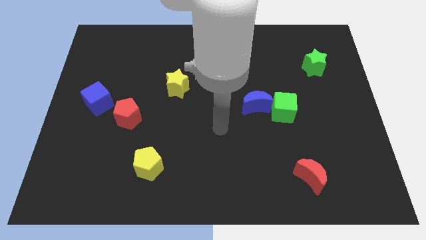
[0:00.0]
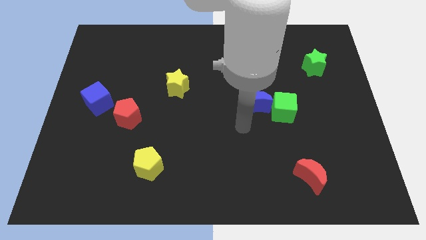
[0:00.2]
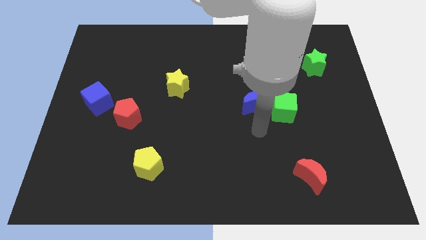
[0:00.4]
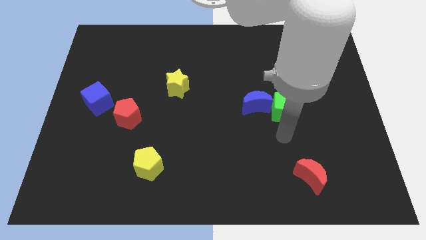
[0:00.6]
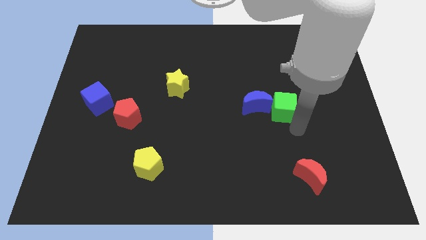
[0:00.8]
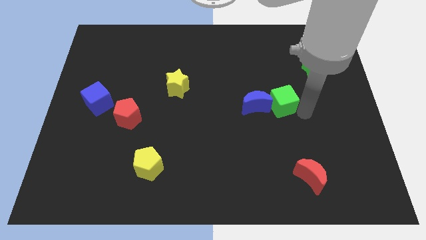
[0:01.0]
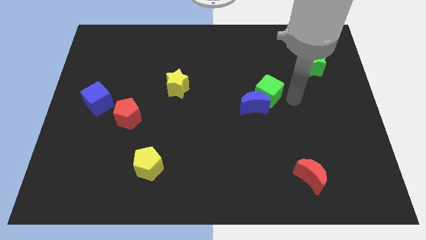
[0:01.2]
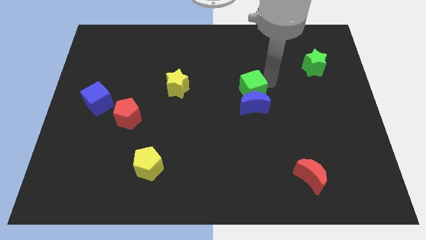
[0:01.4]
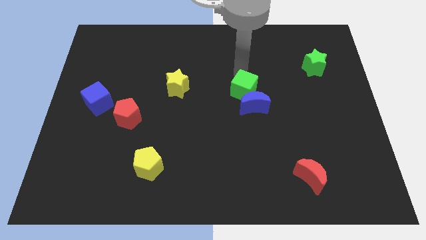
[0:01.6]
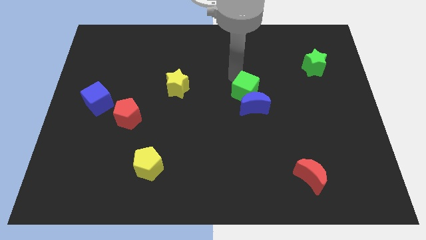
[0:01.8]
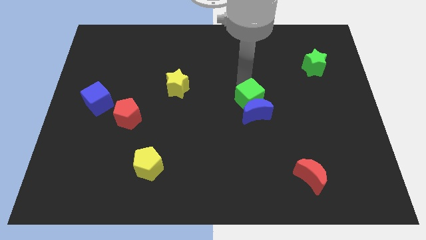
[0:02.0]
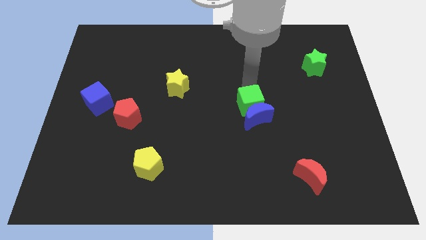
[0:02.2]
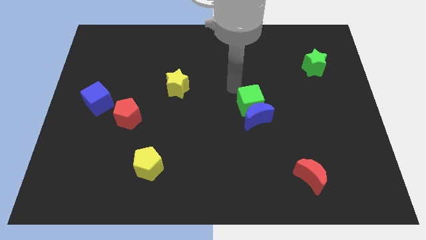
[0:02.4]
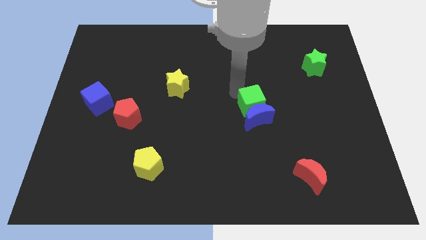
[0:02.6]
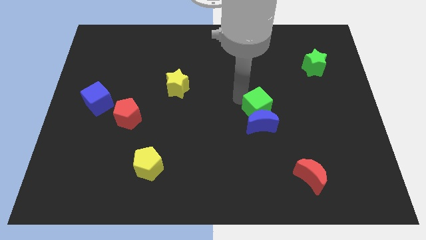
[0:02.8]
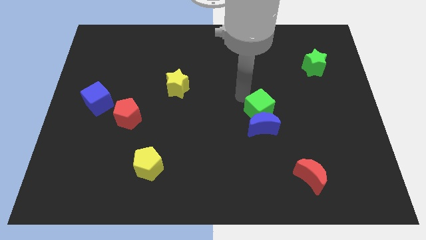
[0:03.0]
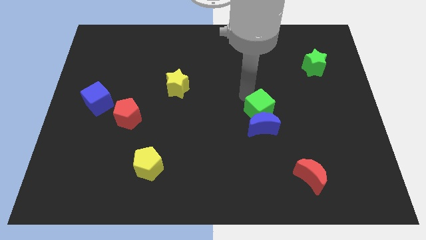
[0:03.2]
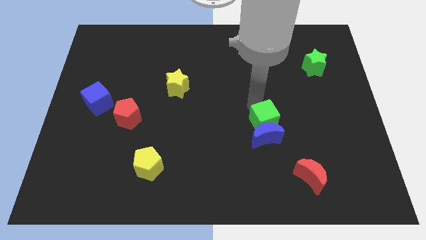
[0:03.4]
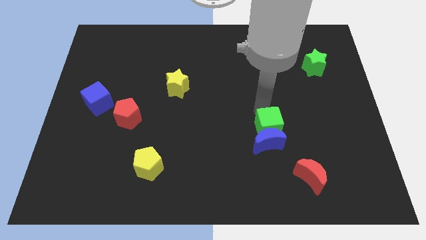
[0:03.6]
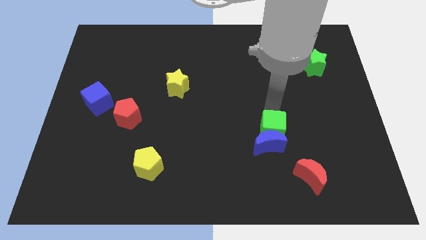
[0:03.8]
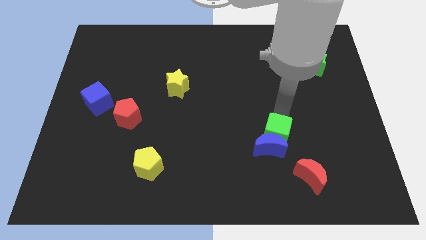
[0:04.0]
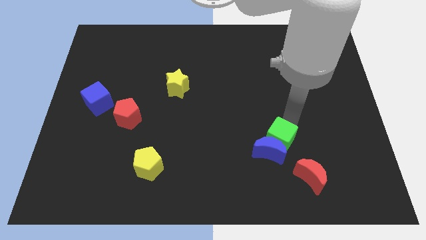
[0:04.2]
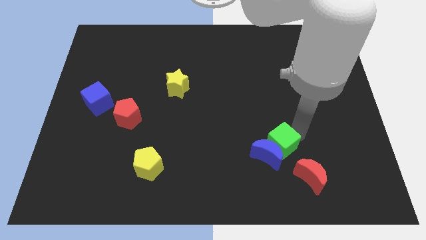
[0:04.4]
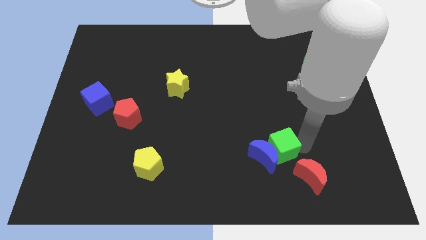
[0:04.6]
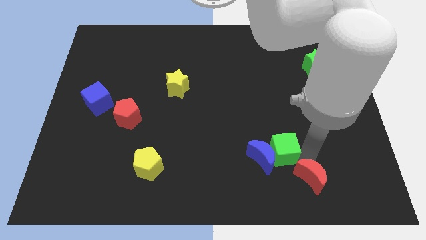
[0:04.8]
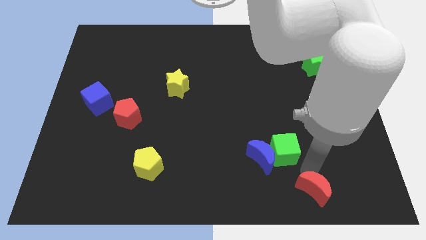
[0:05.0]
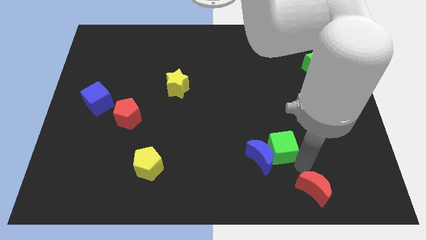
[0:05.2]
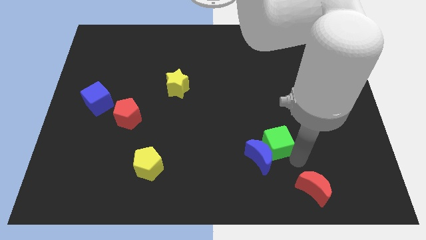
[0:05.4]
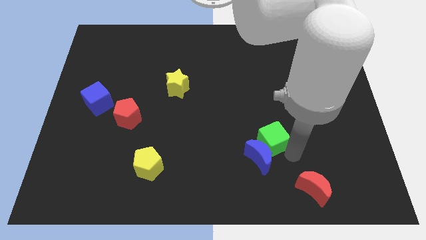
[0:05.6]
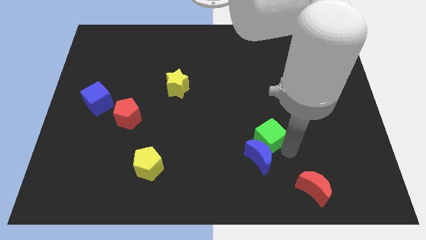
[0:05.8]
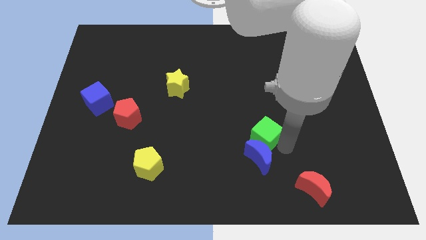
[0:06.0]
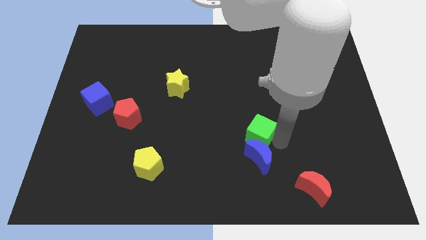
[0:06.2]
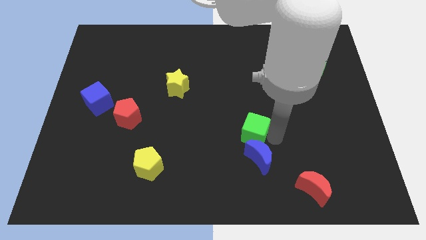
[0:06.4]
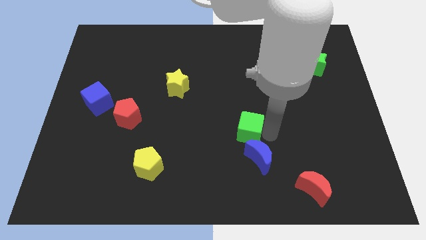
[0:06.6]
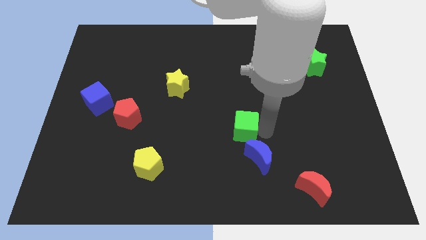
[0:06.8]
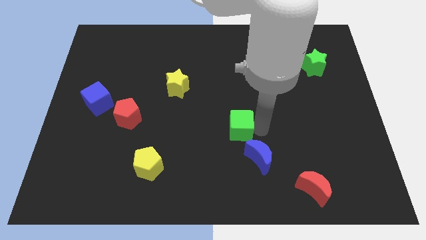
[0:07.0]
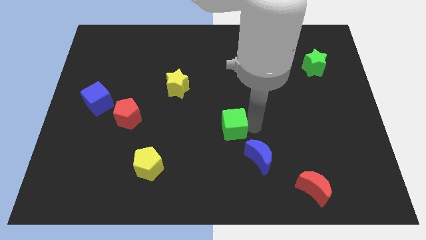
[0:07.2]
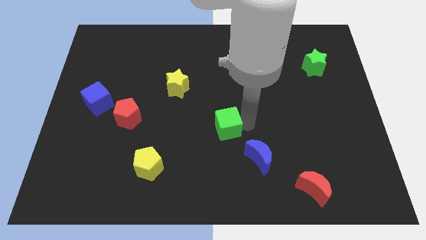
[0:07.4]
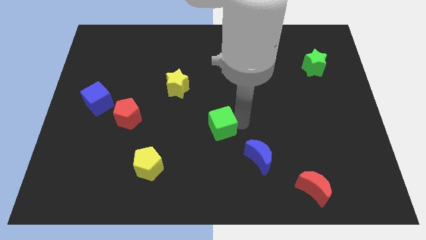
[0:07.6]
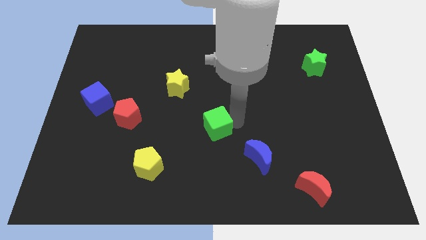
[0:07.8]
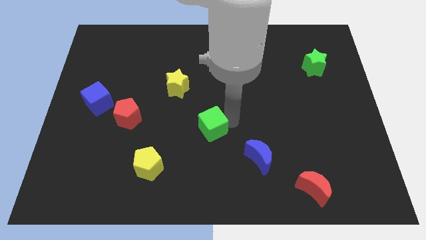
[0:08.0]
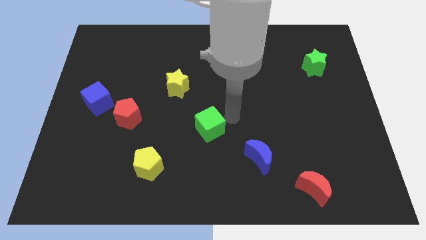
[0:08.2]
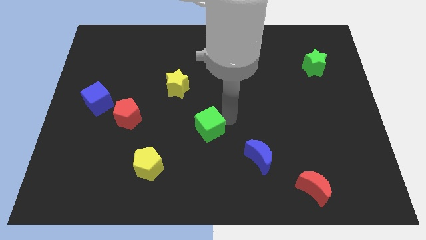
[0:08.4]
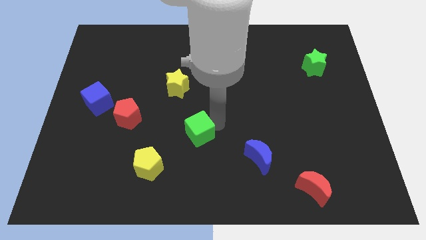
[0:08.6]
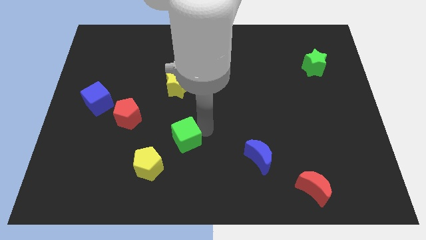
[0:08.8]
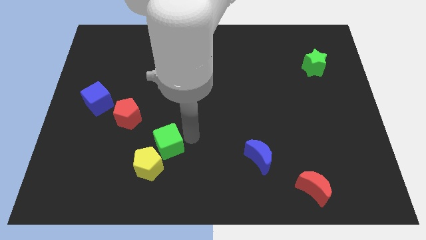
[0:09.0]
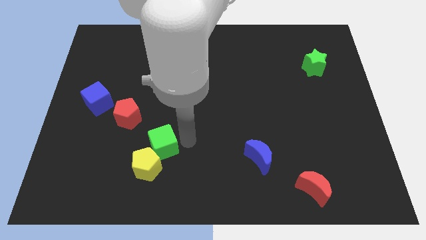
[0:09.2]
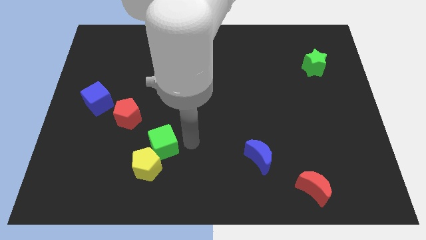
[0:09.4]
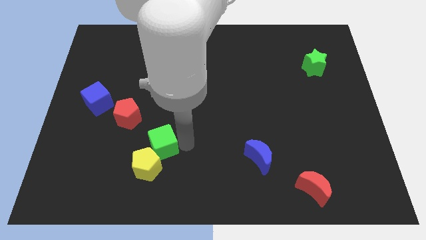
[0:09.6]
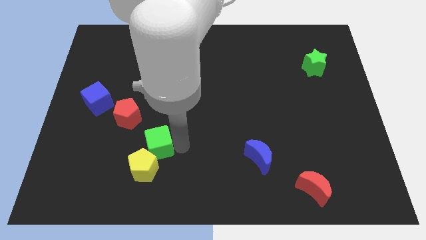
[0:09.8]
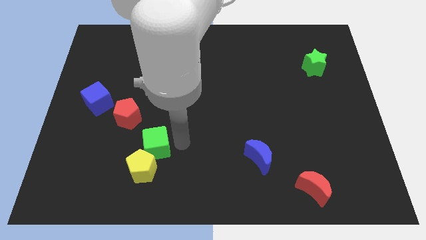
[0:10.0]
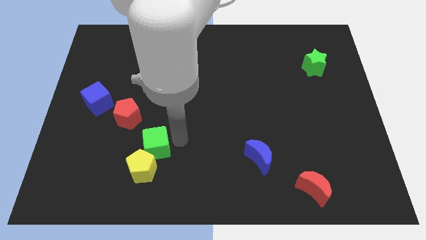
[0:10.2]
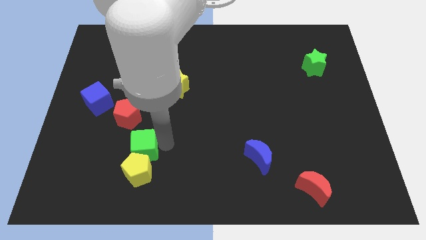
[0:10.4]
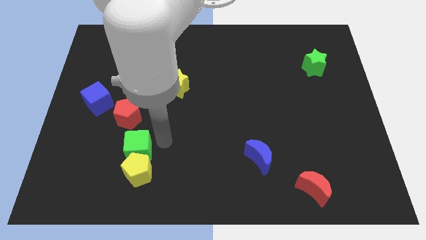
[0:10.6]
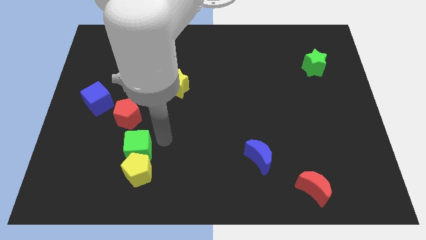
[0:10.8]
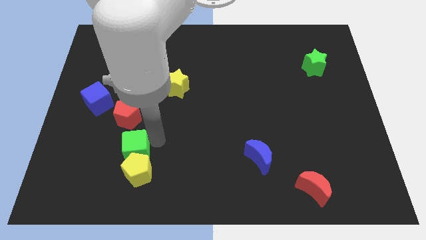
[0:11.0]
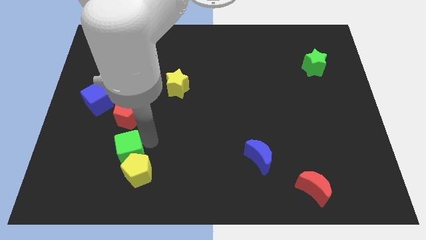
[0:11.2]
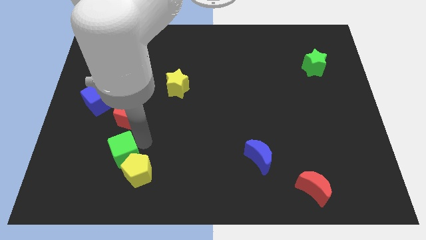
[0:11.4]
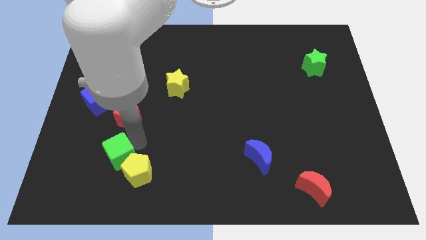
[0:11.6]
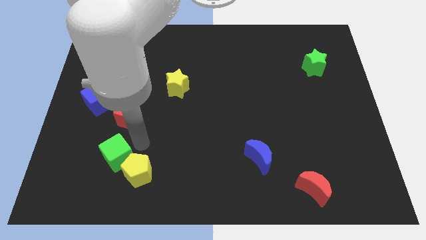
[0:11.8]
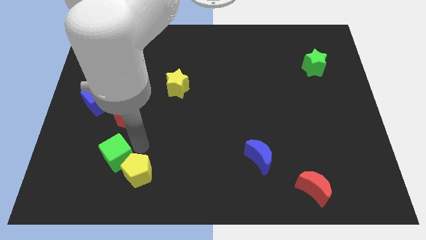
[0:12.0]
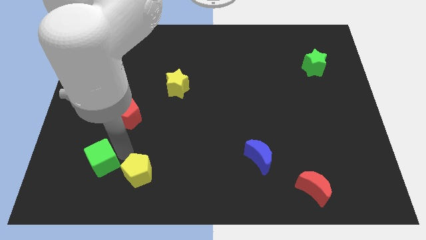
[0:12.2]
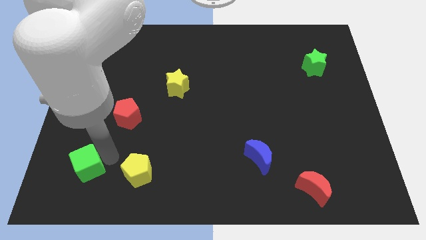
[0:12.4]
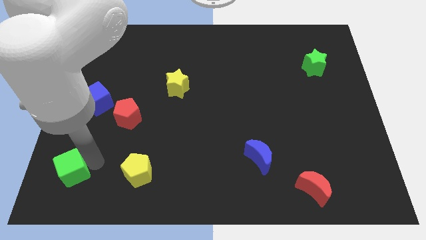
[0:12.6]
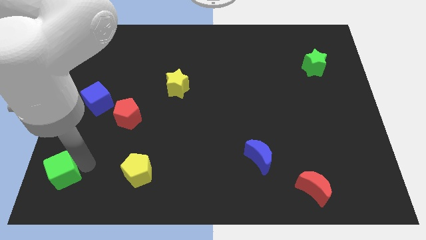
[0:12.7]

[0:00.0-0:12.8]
move the green cube to the bottom left
